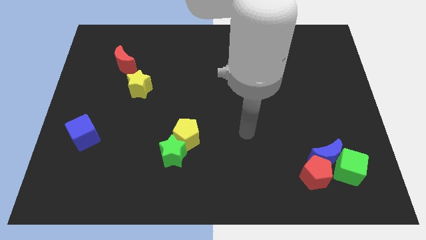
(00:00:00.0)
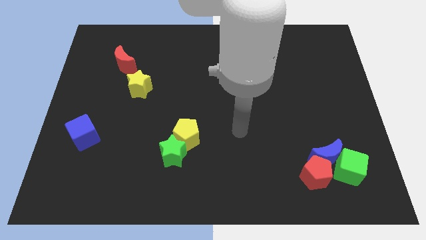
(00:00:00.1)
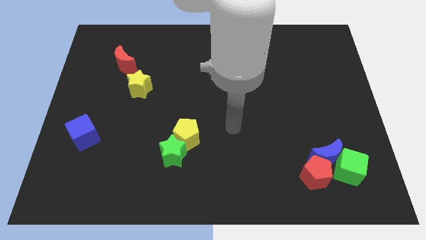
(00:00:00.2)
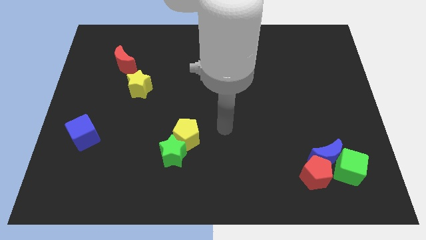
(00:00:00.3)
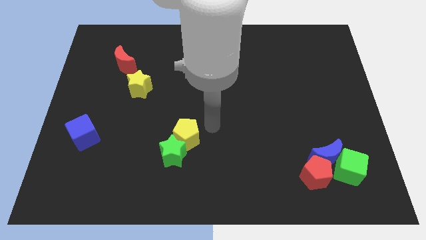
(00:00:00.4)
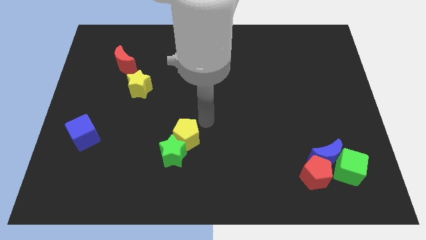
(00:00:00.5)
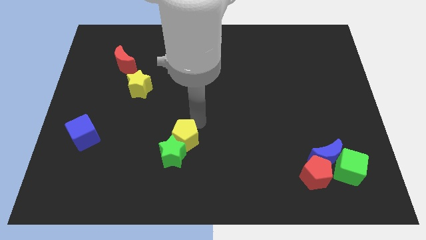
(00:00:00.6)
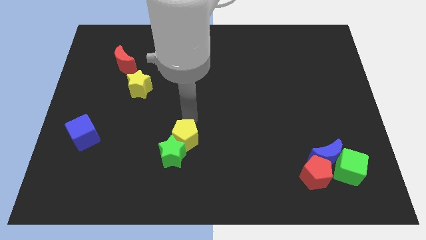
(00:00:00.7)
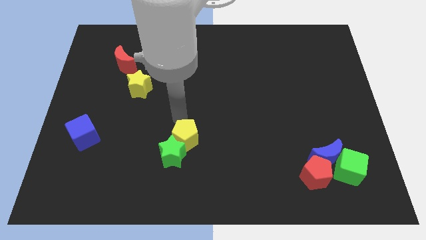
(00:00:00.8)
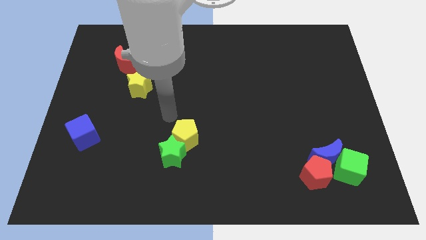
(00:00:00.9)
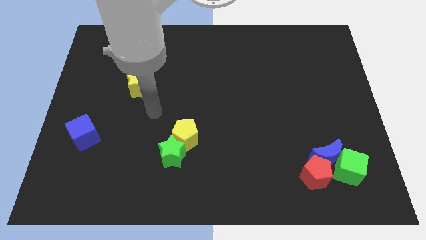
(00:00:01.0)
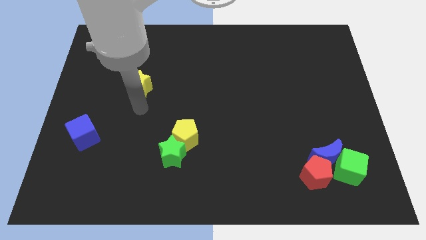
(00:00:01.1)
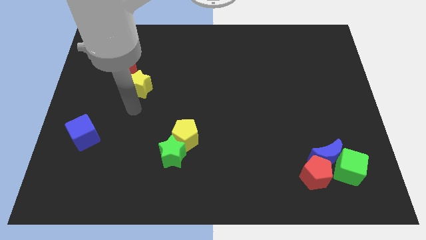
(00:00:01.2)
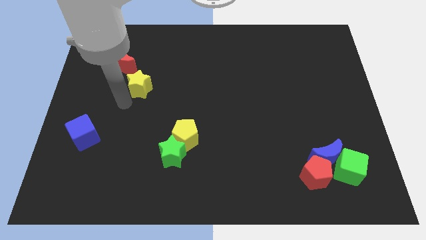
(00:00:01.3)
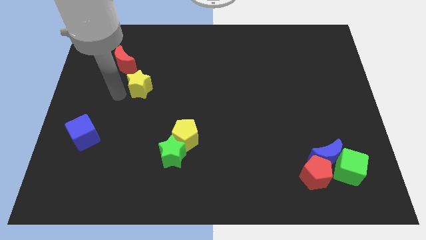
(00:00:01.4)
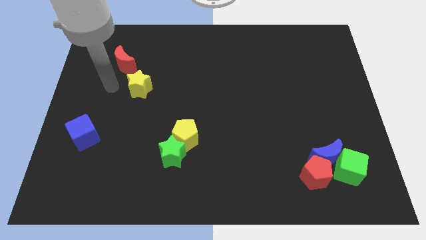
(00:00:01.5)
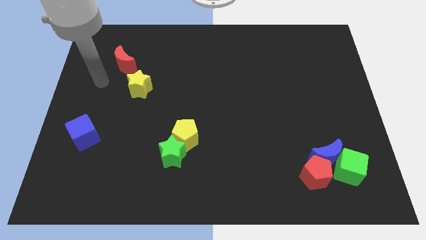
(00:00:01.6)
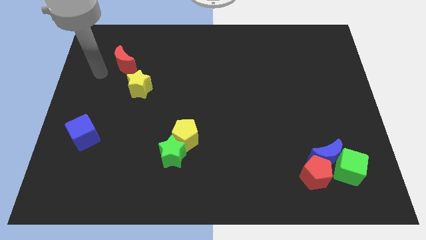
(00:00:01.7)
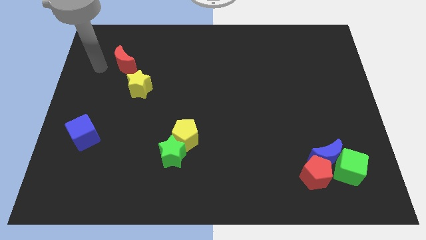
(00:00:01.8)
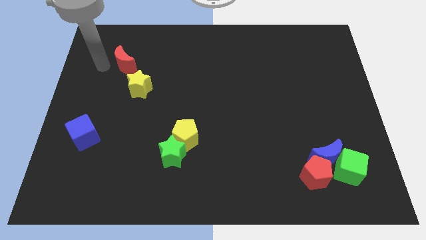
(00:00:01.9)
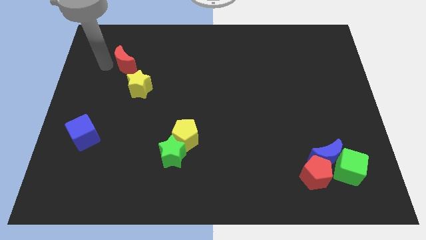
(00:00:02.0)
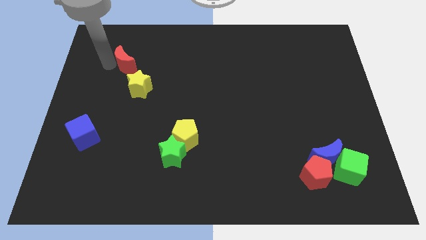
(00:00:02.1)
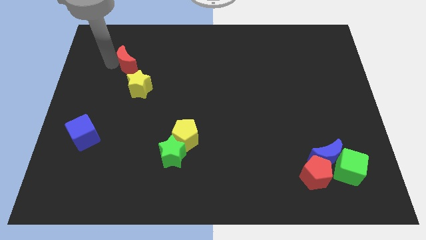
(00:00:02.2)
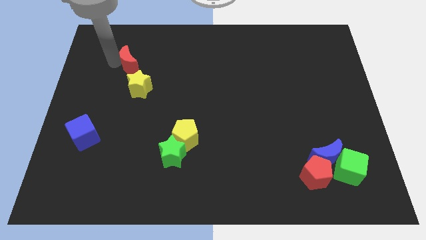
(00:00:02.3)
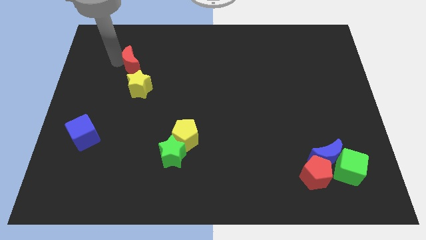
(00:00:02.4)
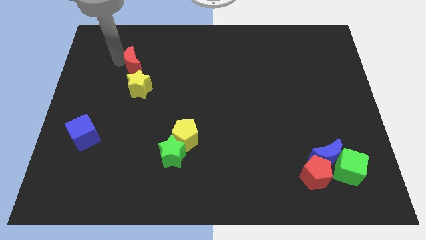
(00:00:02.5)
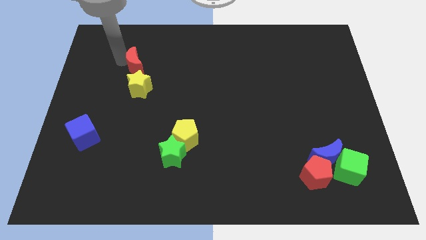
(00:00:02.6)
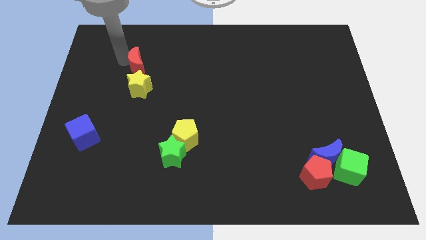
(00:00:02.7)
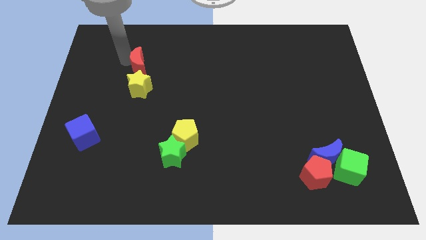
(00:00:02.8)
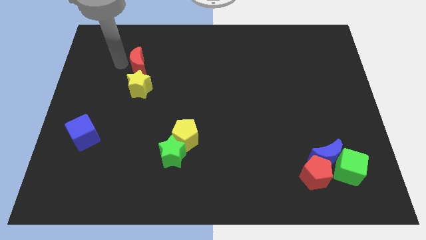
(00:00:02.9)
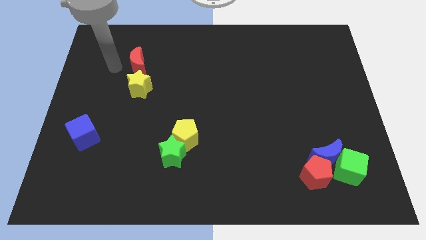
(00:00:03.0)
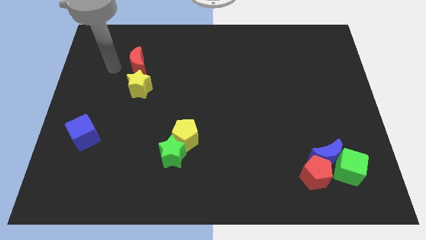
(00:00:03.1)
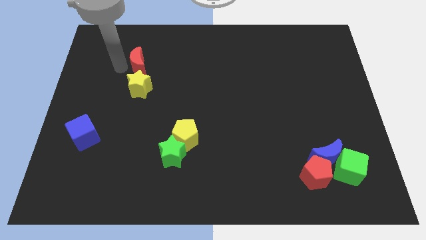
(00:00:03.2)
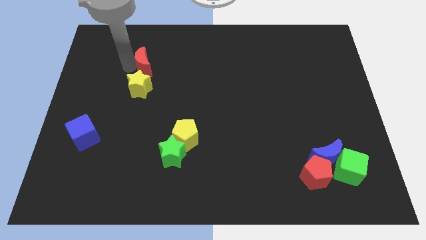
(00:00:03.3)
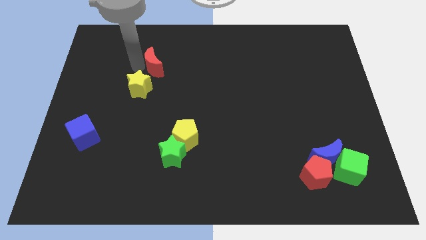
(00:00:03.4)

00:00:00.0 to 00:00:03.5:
slightly move the red moon to the right

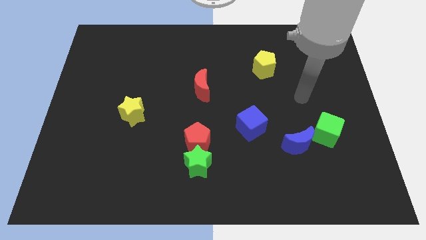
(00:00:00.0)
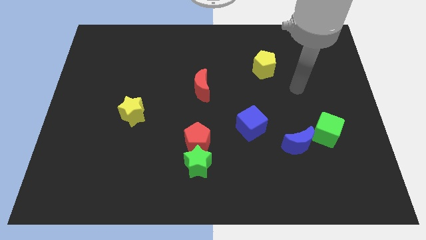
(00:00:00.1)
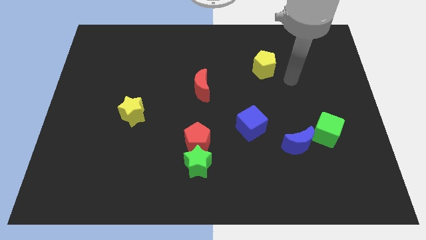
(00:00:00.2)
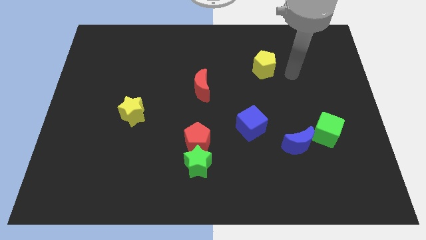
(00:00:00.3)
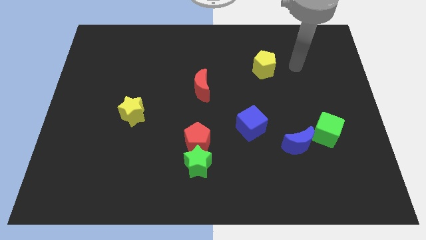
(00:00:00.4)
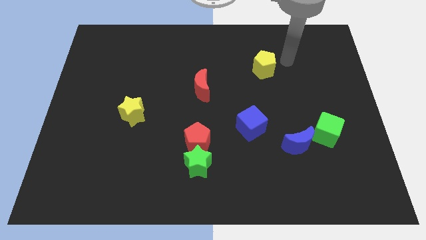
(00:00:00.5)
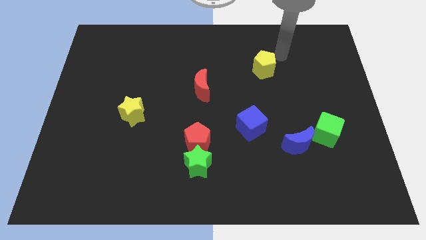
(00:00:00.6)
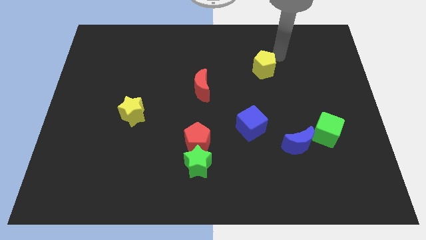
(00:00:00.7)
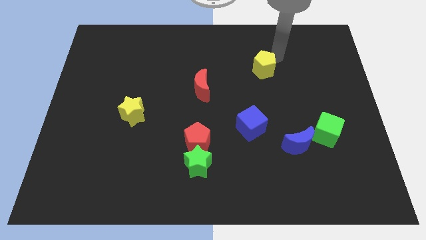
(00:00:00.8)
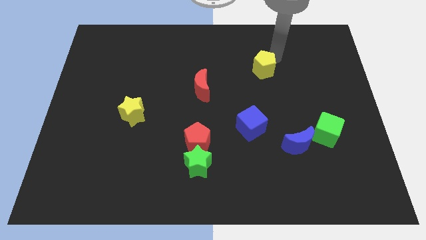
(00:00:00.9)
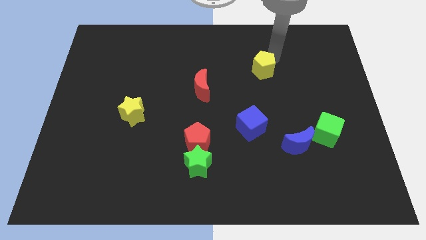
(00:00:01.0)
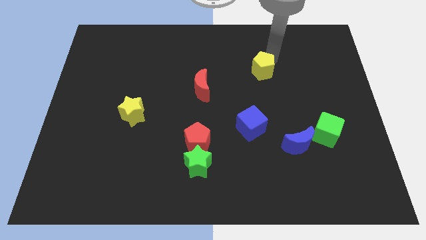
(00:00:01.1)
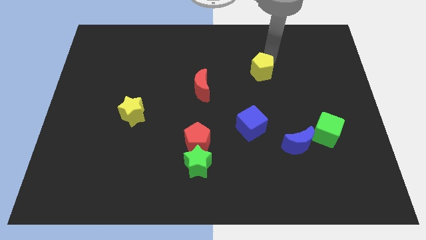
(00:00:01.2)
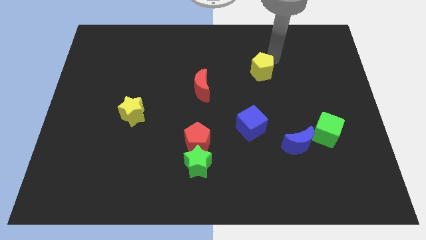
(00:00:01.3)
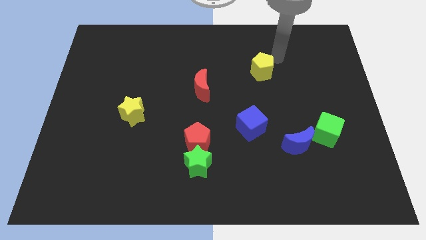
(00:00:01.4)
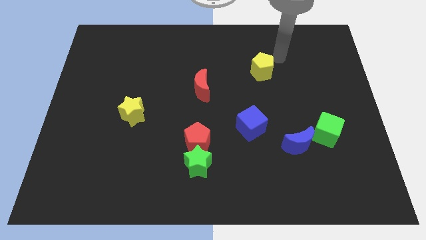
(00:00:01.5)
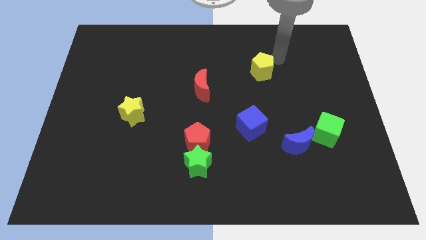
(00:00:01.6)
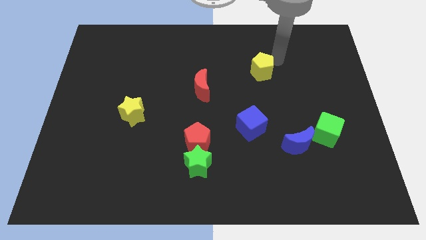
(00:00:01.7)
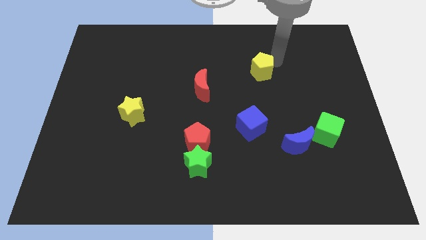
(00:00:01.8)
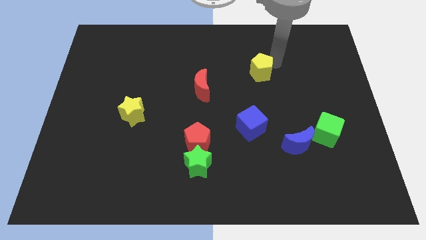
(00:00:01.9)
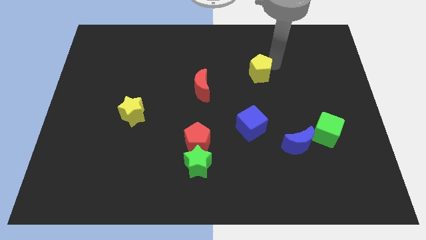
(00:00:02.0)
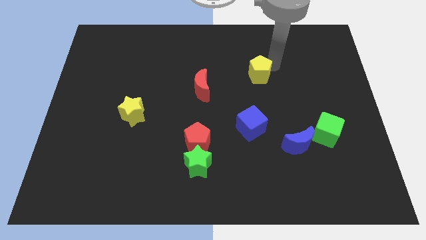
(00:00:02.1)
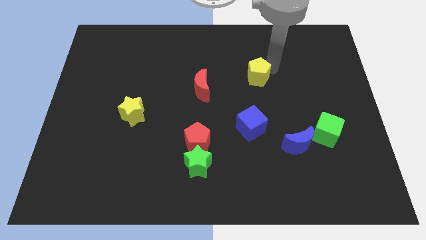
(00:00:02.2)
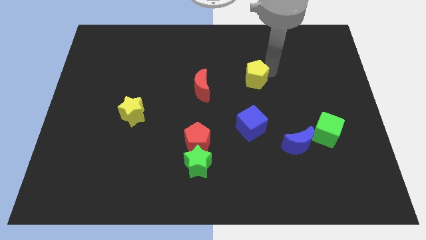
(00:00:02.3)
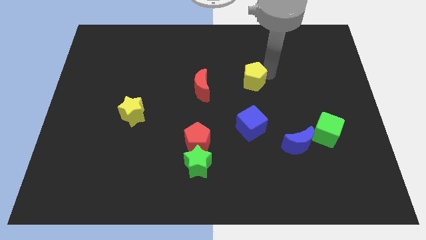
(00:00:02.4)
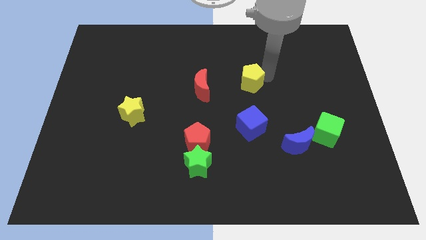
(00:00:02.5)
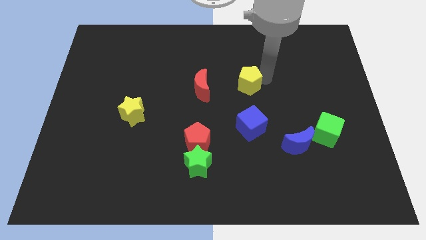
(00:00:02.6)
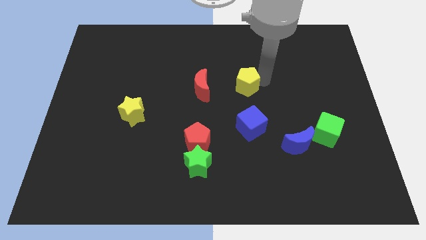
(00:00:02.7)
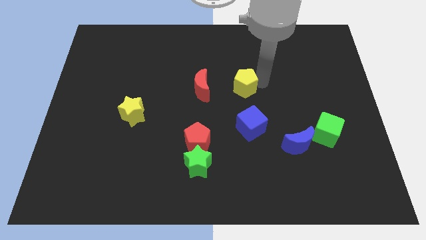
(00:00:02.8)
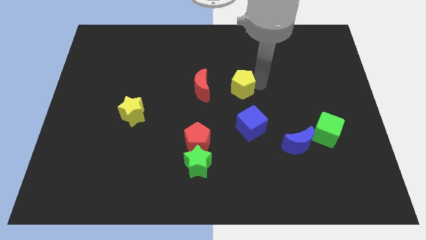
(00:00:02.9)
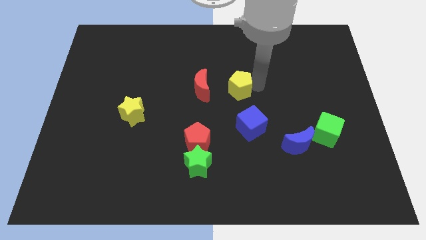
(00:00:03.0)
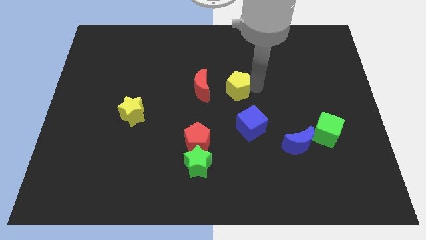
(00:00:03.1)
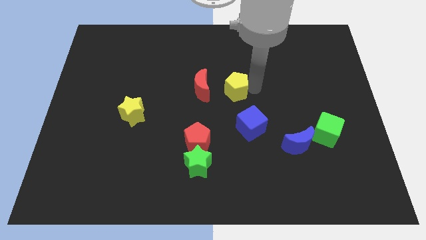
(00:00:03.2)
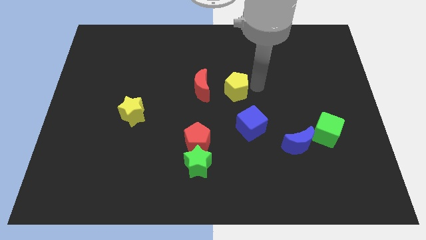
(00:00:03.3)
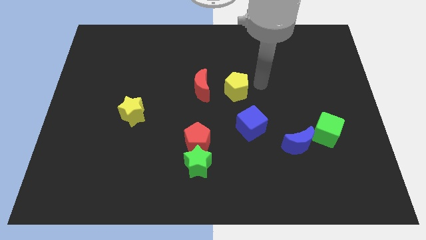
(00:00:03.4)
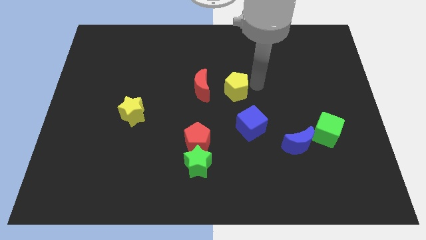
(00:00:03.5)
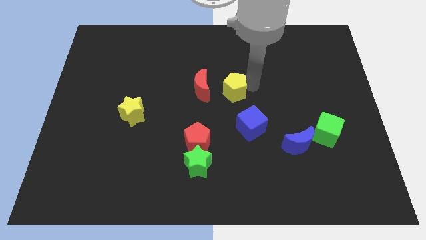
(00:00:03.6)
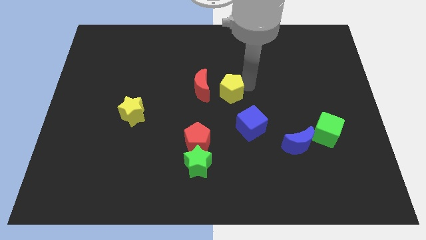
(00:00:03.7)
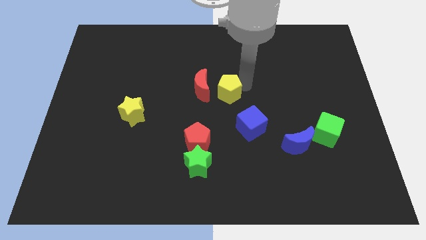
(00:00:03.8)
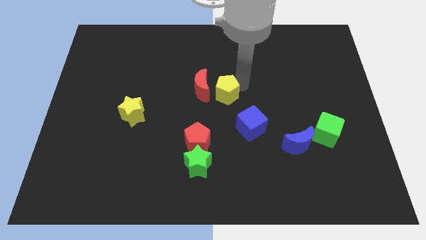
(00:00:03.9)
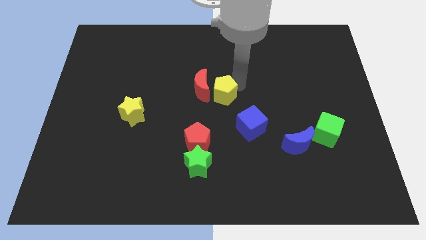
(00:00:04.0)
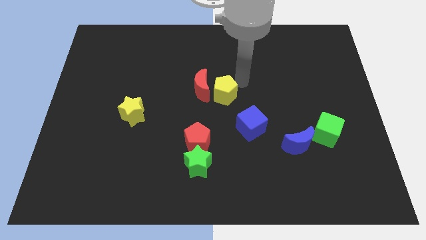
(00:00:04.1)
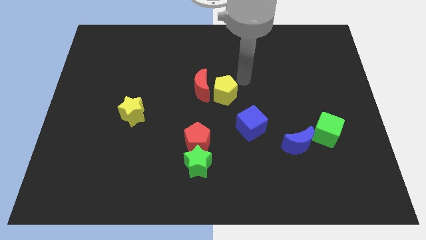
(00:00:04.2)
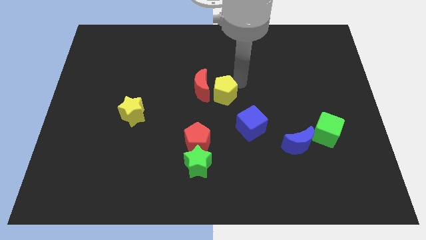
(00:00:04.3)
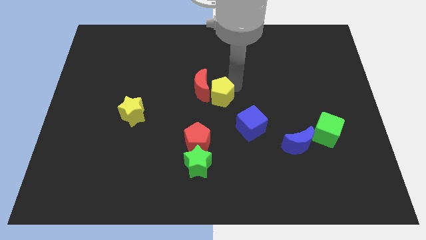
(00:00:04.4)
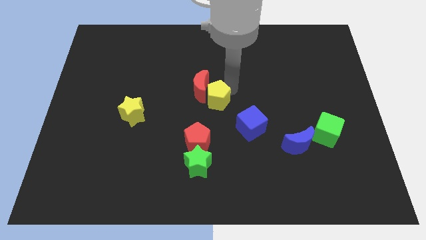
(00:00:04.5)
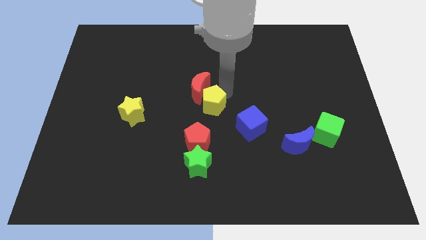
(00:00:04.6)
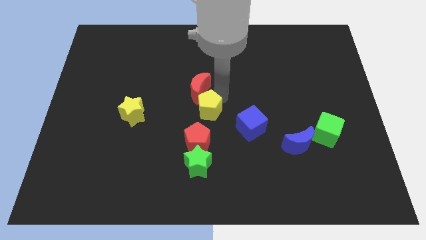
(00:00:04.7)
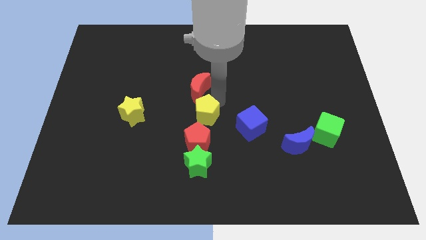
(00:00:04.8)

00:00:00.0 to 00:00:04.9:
move the yellow pentagon diagonally downwards and left
